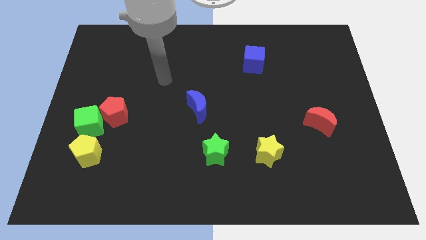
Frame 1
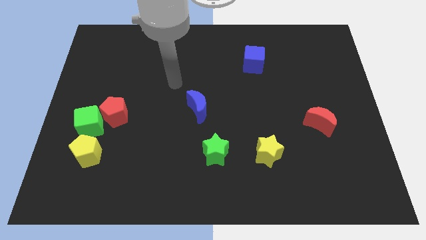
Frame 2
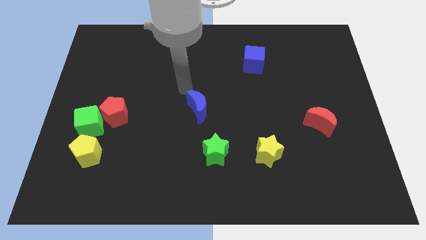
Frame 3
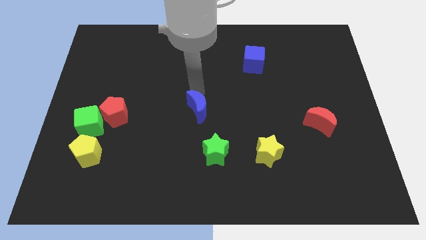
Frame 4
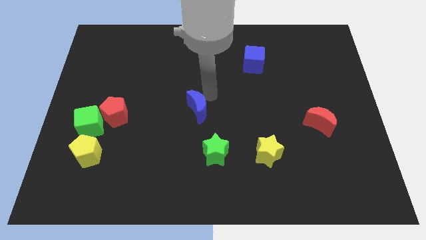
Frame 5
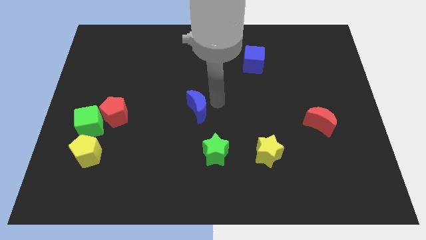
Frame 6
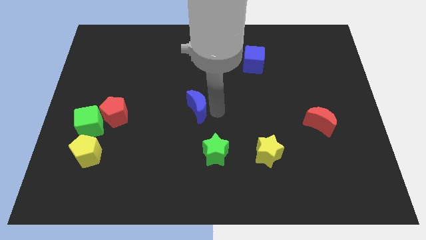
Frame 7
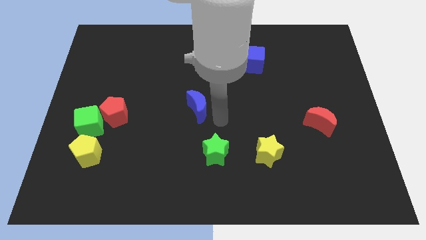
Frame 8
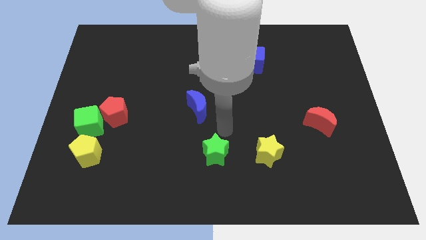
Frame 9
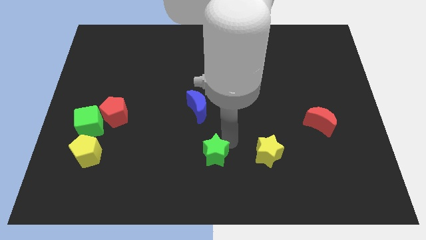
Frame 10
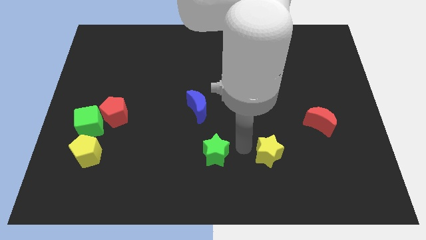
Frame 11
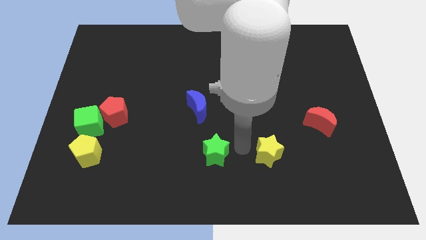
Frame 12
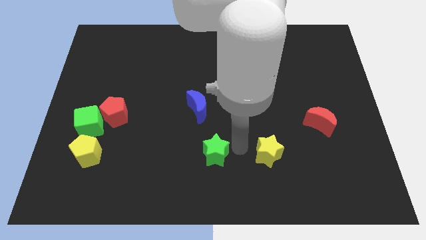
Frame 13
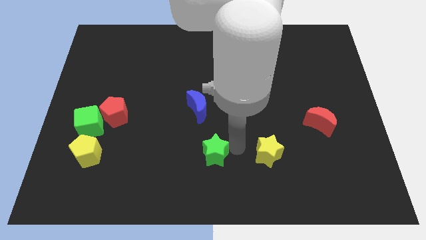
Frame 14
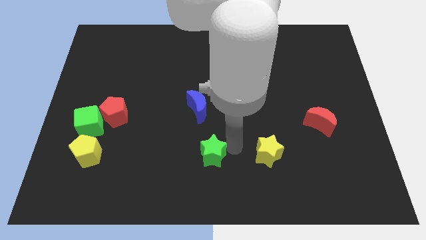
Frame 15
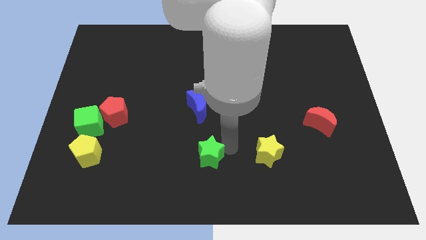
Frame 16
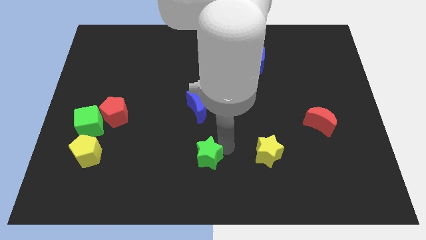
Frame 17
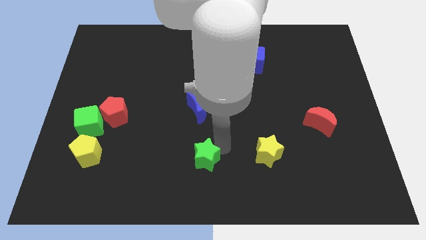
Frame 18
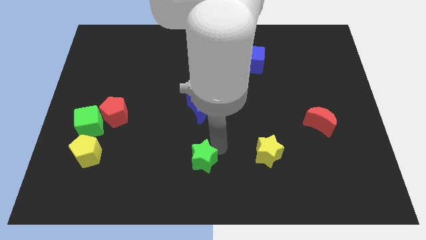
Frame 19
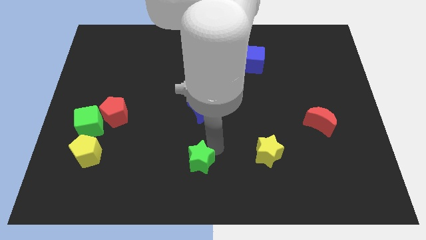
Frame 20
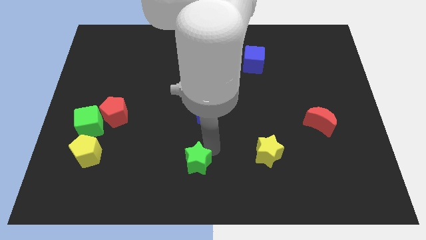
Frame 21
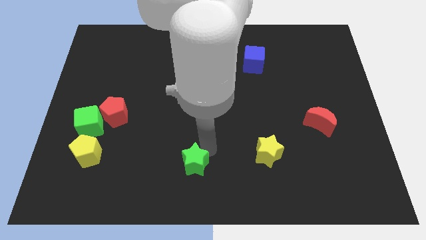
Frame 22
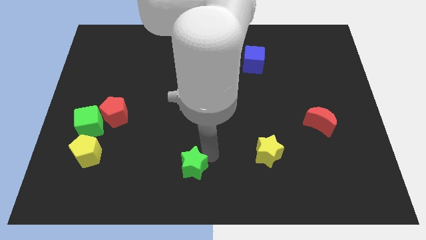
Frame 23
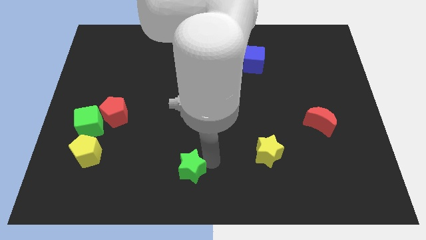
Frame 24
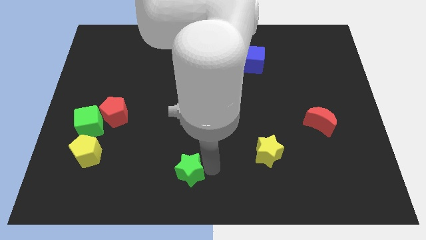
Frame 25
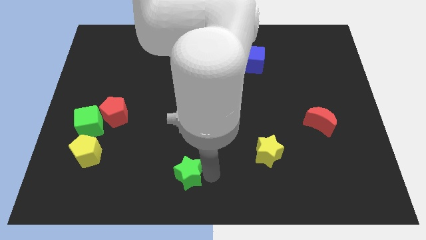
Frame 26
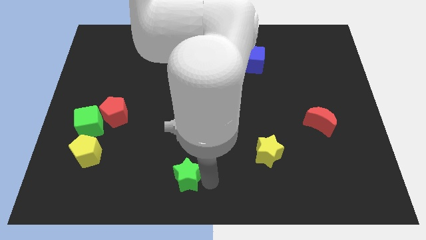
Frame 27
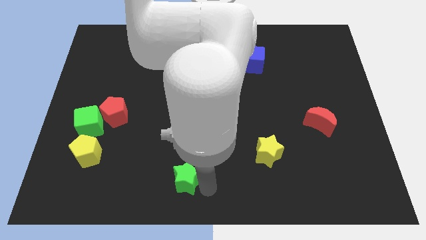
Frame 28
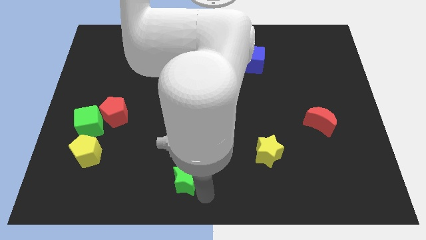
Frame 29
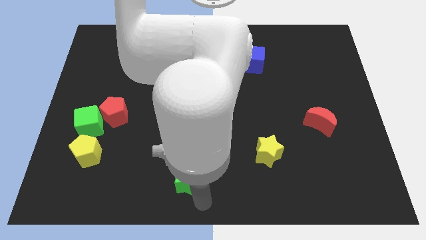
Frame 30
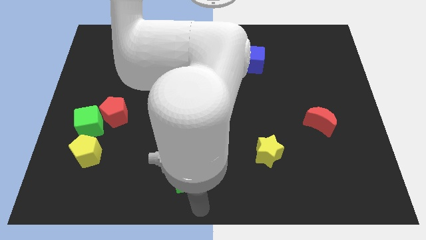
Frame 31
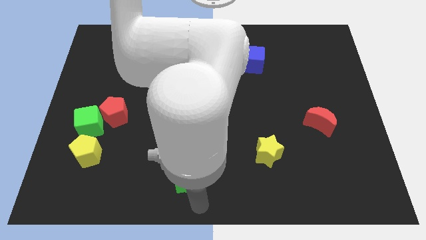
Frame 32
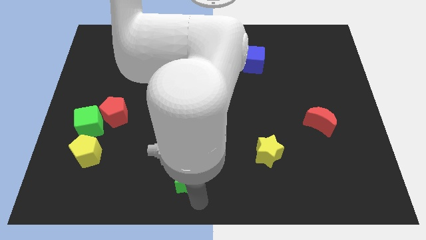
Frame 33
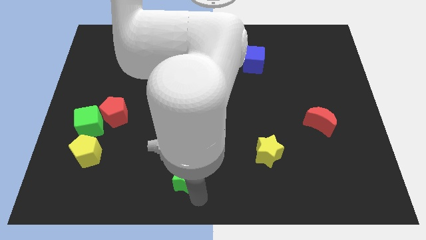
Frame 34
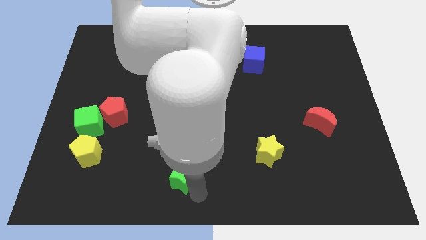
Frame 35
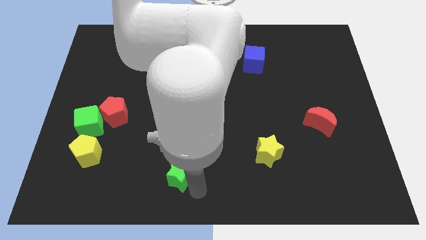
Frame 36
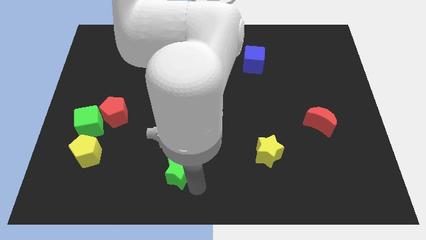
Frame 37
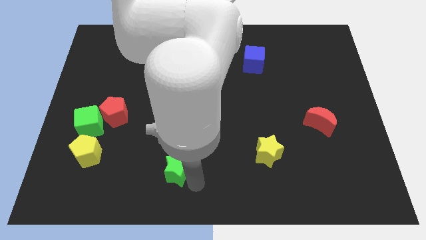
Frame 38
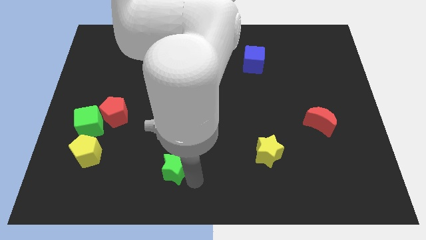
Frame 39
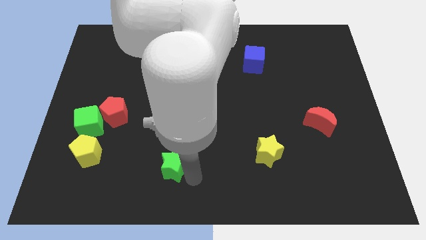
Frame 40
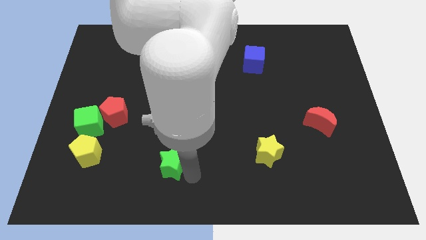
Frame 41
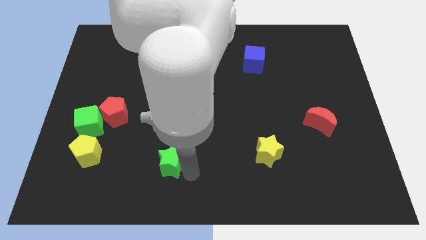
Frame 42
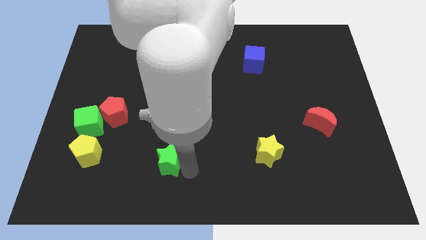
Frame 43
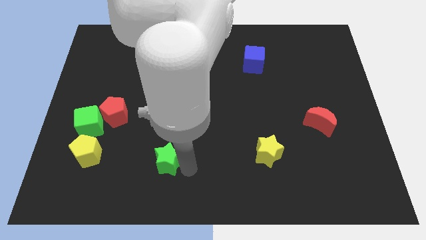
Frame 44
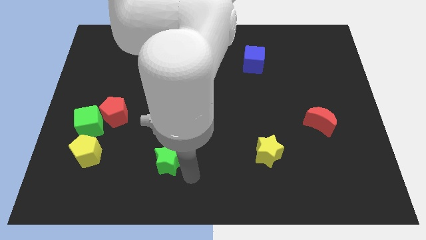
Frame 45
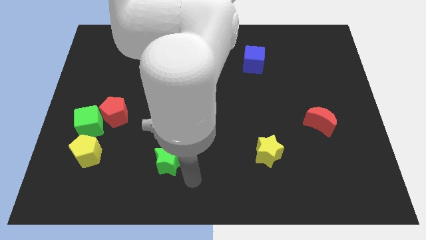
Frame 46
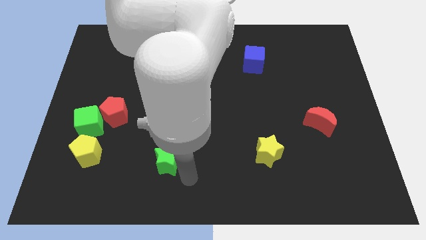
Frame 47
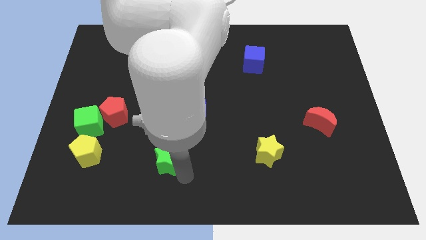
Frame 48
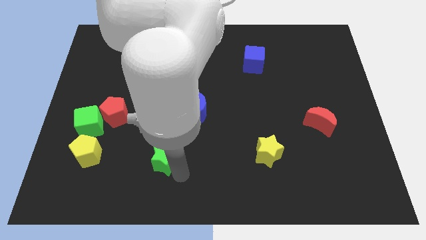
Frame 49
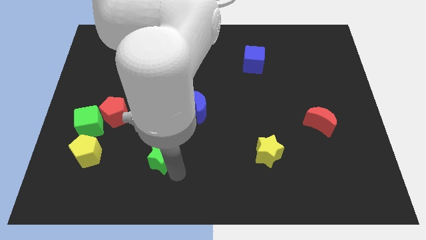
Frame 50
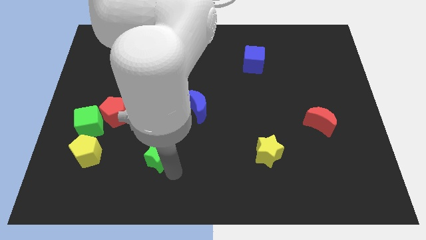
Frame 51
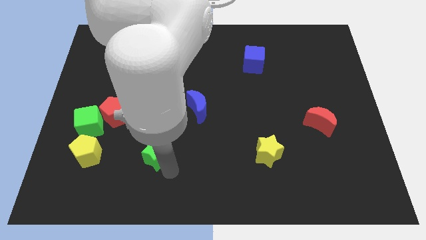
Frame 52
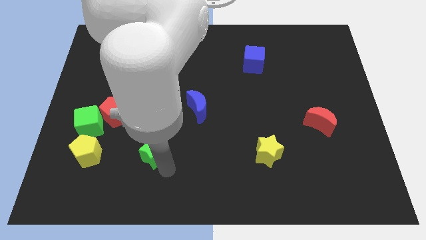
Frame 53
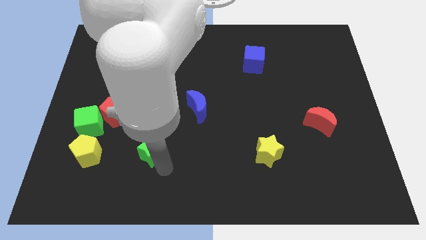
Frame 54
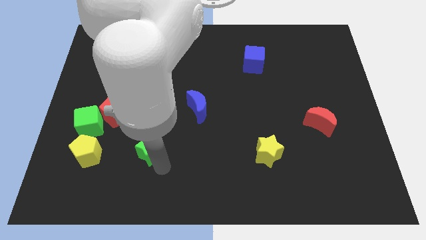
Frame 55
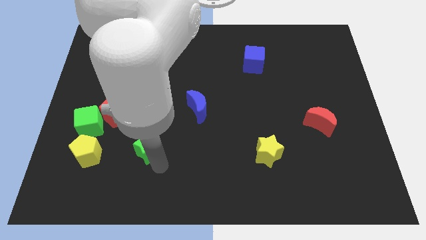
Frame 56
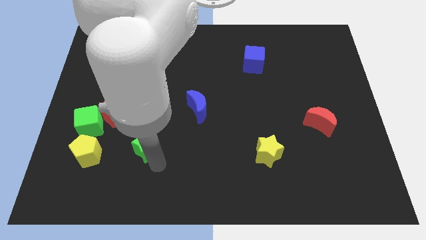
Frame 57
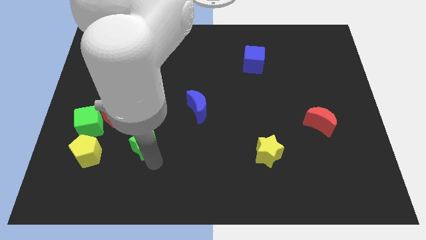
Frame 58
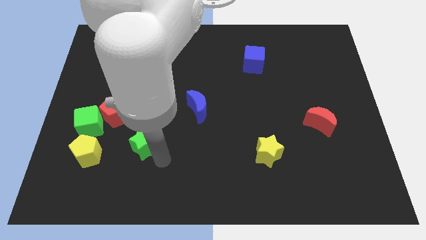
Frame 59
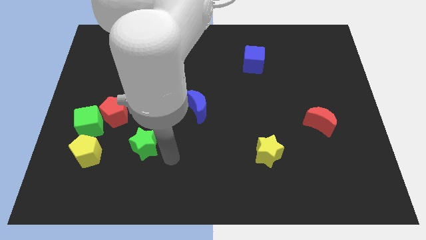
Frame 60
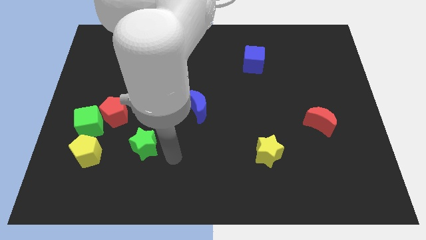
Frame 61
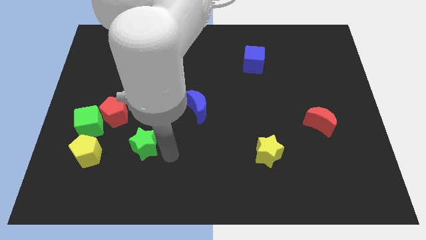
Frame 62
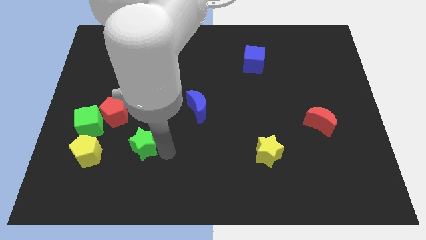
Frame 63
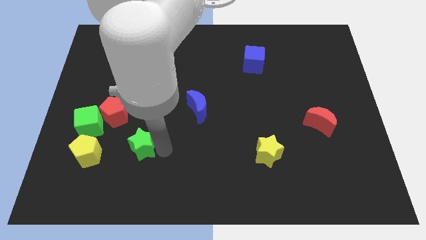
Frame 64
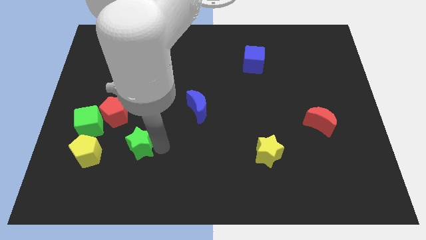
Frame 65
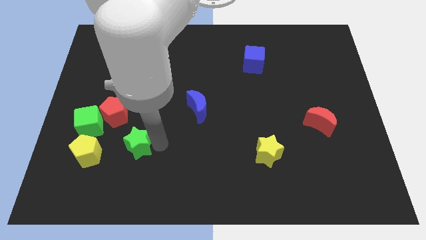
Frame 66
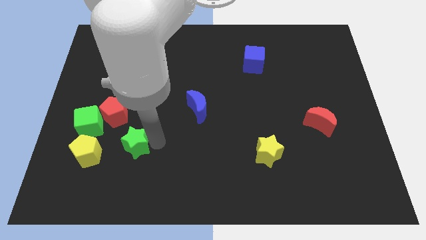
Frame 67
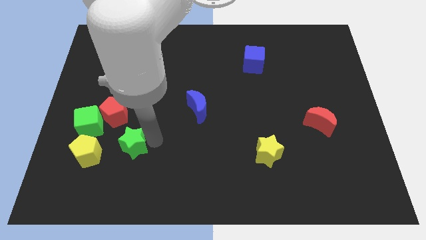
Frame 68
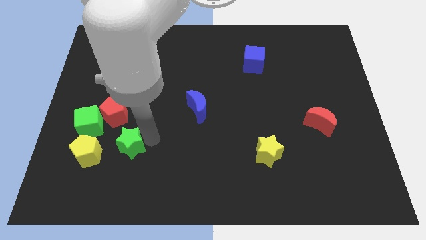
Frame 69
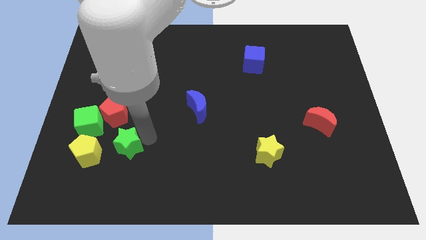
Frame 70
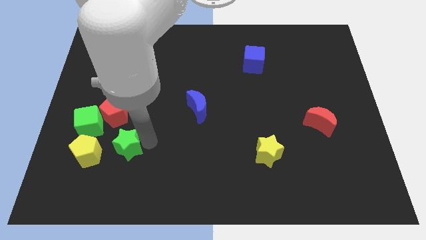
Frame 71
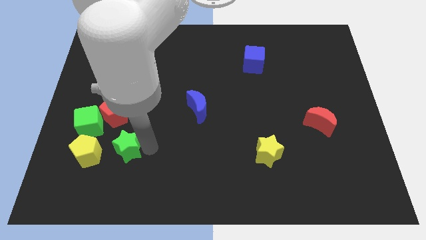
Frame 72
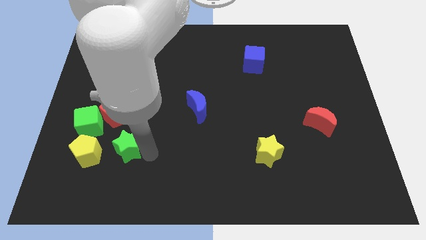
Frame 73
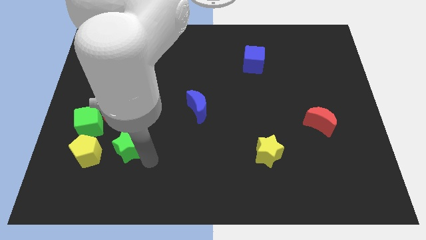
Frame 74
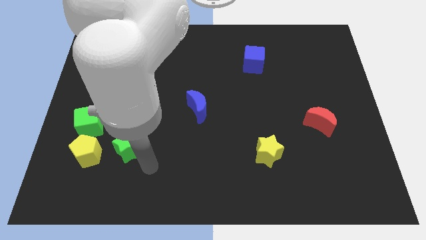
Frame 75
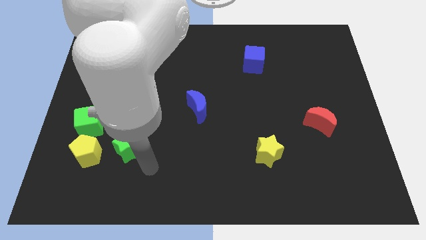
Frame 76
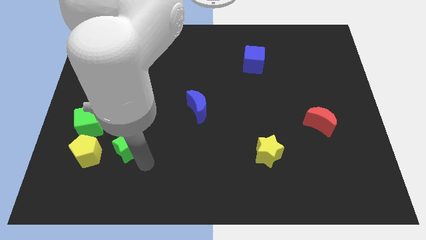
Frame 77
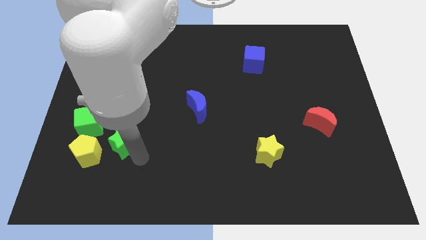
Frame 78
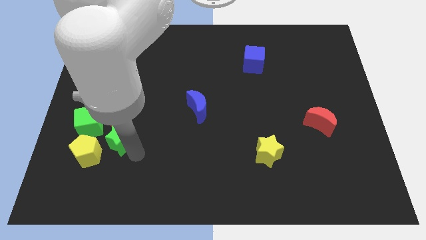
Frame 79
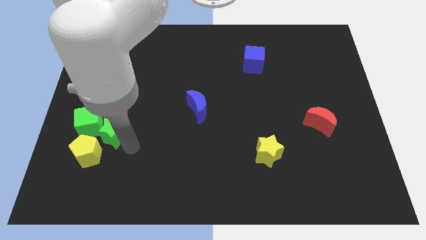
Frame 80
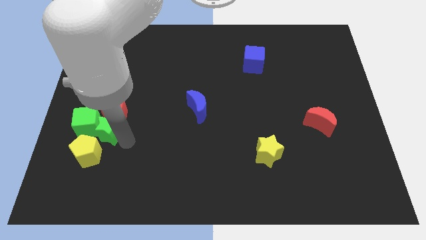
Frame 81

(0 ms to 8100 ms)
put the green star next to the green cube

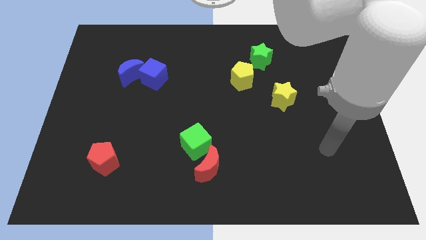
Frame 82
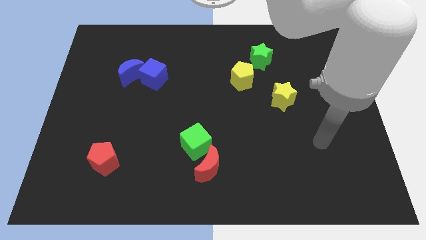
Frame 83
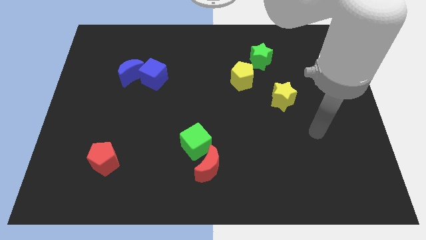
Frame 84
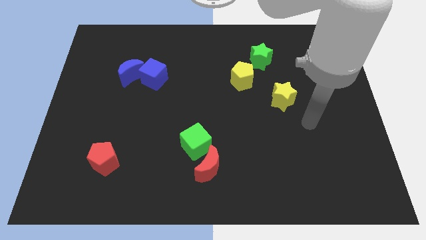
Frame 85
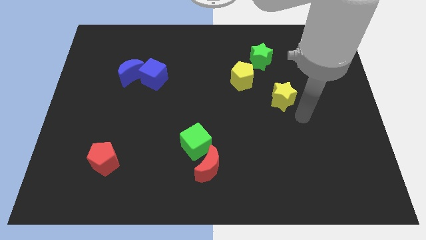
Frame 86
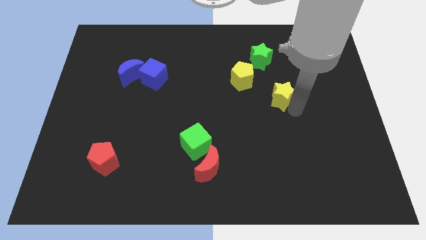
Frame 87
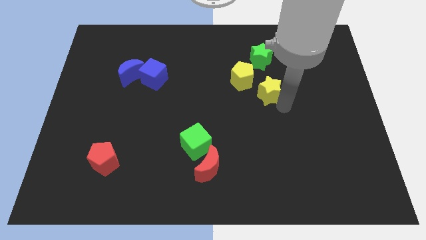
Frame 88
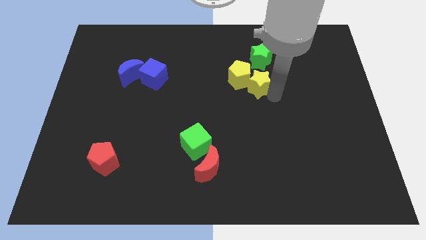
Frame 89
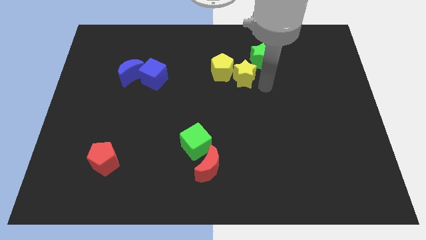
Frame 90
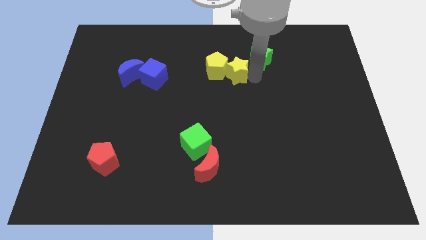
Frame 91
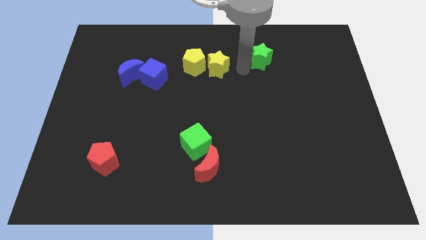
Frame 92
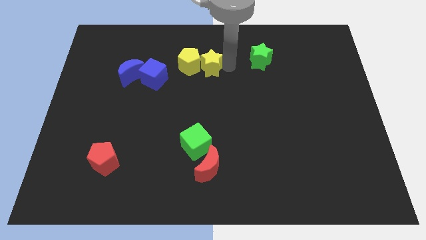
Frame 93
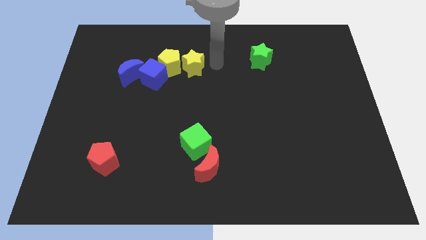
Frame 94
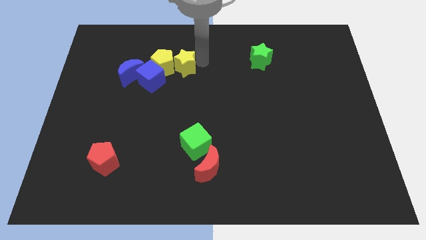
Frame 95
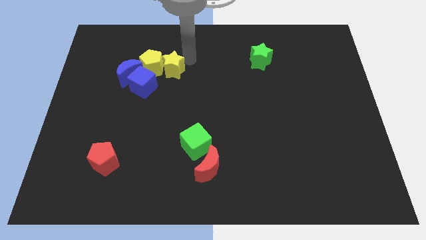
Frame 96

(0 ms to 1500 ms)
slide the yellow pentagon to the blue moon
